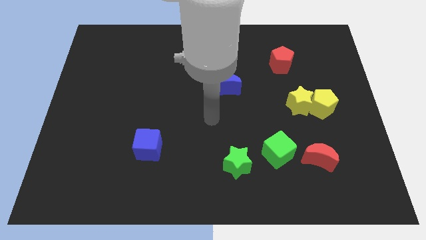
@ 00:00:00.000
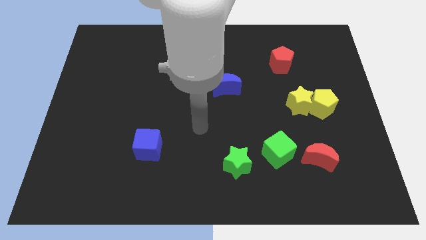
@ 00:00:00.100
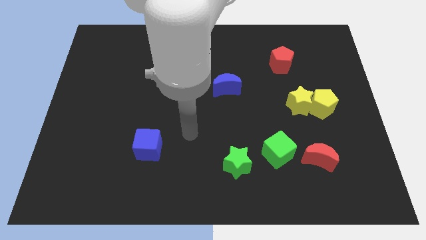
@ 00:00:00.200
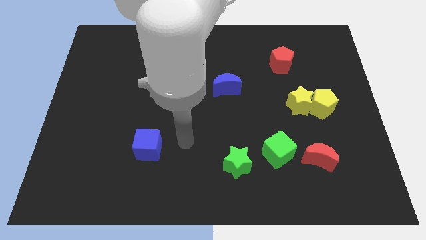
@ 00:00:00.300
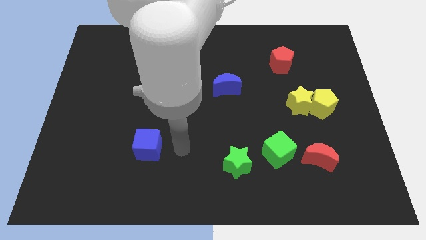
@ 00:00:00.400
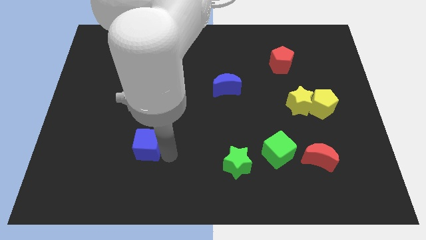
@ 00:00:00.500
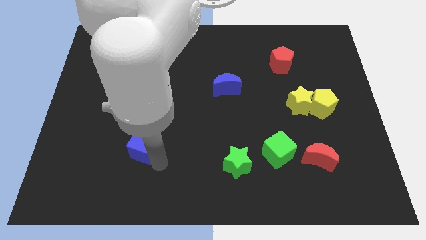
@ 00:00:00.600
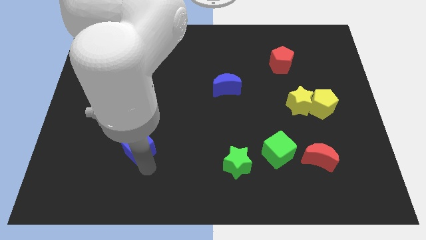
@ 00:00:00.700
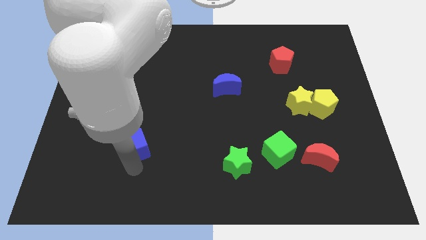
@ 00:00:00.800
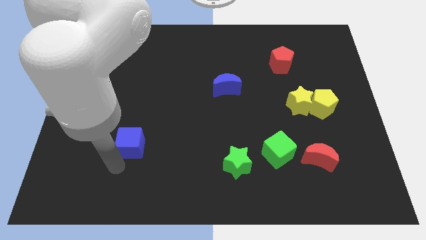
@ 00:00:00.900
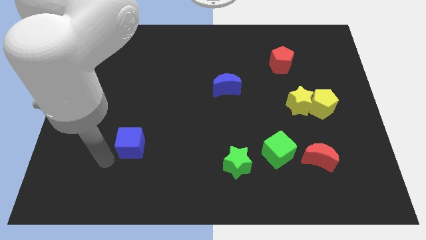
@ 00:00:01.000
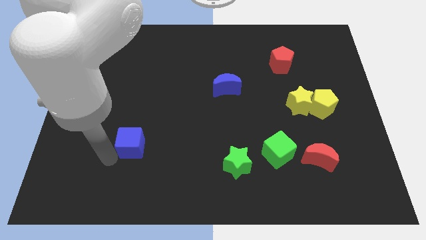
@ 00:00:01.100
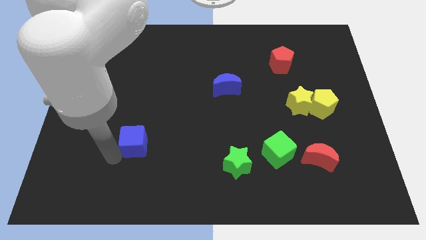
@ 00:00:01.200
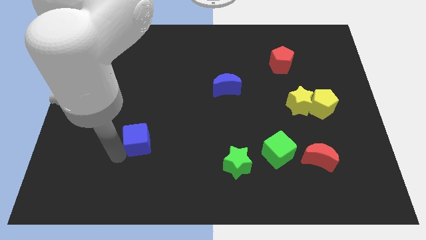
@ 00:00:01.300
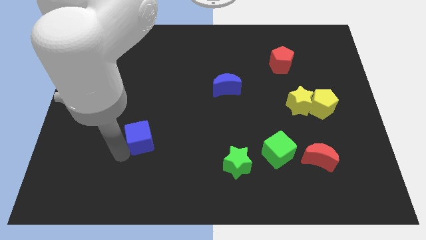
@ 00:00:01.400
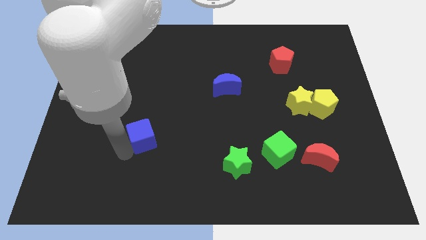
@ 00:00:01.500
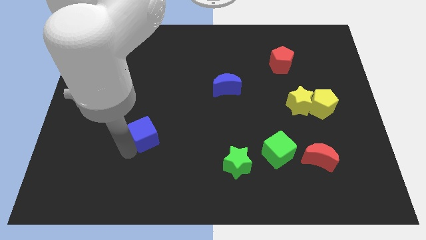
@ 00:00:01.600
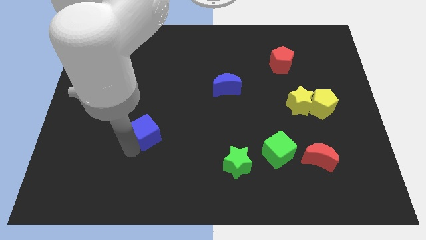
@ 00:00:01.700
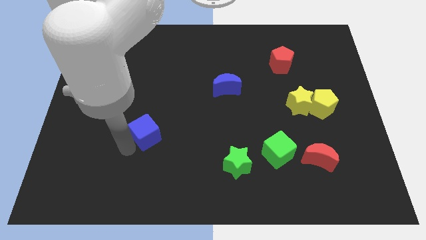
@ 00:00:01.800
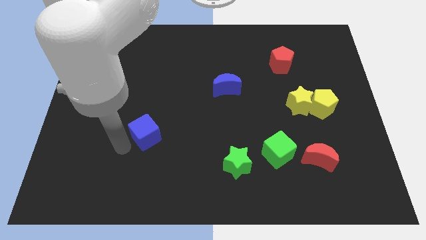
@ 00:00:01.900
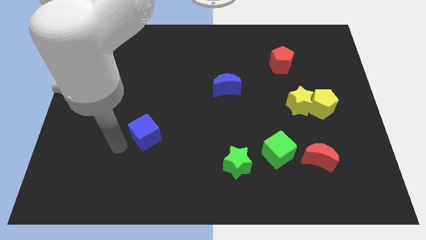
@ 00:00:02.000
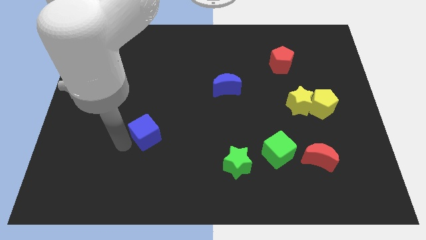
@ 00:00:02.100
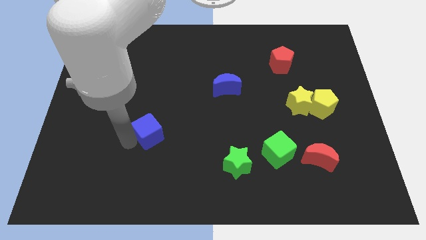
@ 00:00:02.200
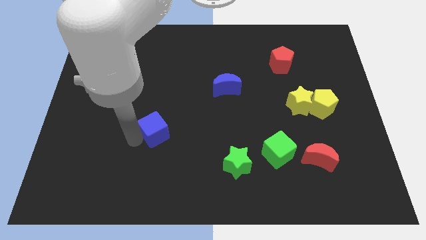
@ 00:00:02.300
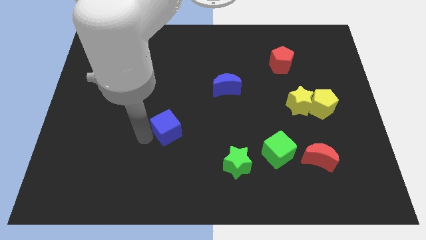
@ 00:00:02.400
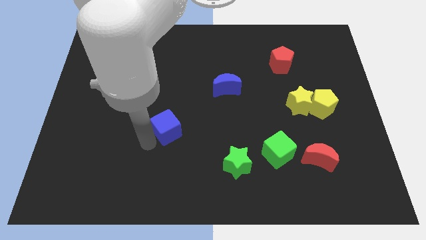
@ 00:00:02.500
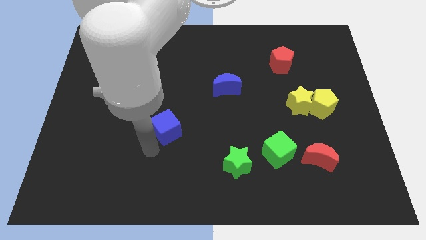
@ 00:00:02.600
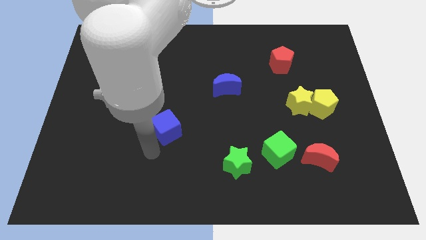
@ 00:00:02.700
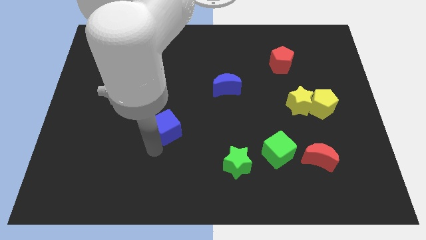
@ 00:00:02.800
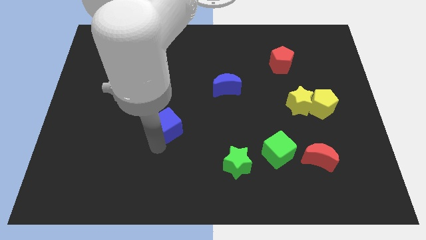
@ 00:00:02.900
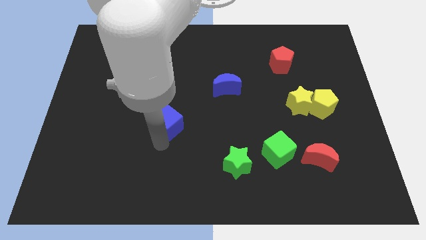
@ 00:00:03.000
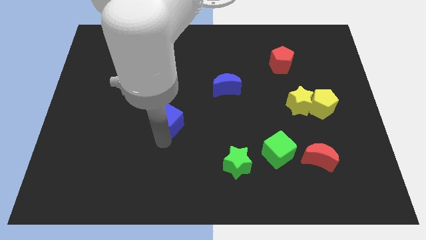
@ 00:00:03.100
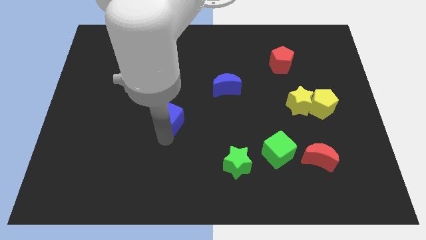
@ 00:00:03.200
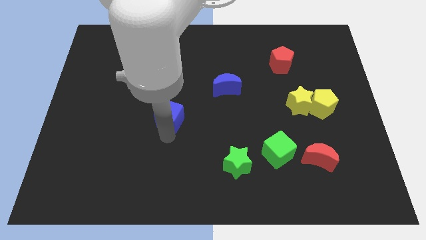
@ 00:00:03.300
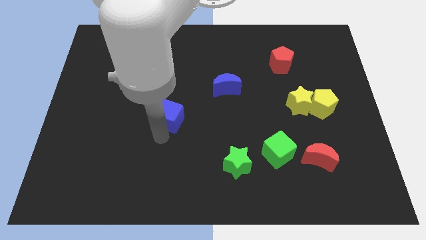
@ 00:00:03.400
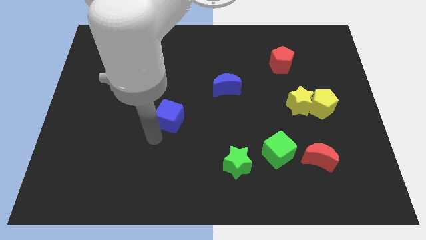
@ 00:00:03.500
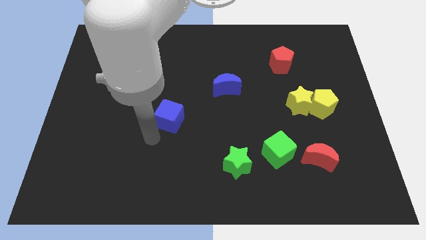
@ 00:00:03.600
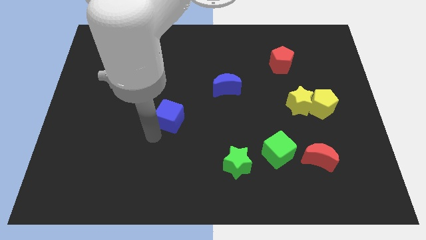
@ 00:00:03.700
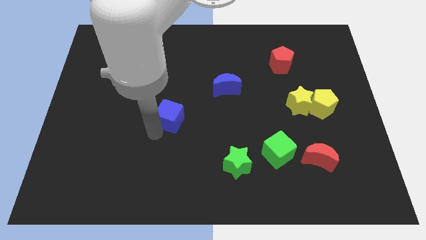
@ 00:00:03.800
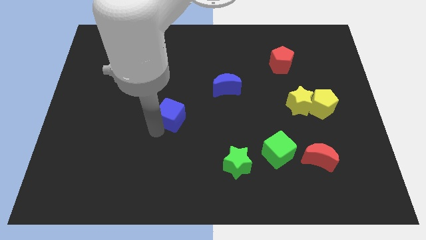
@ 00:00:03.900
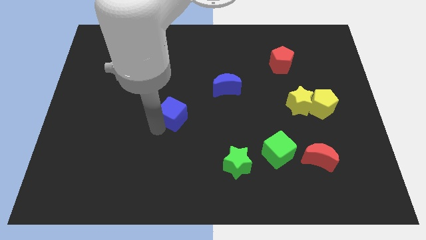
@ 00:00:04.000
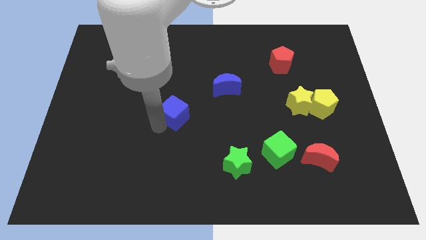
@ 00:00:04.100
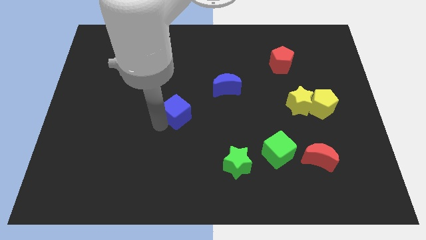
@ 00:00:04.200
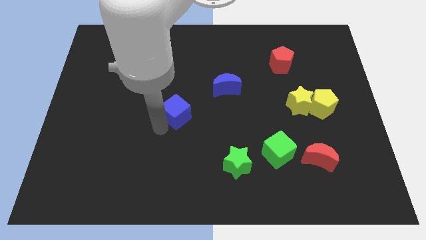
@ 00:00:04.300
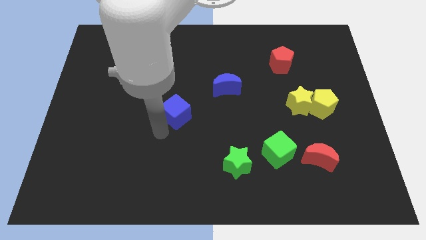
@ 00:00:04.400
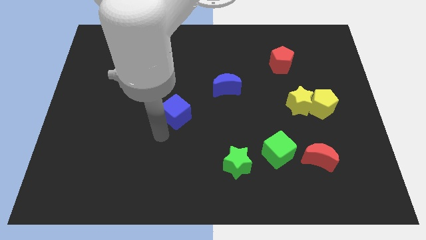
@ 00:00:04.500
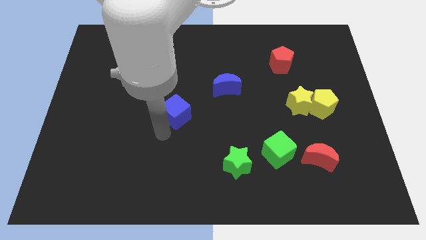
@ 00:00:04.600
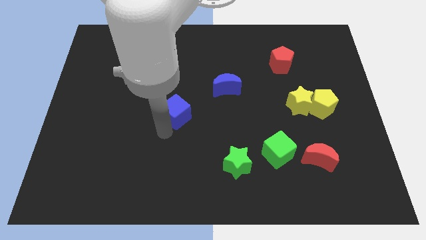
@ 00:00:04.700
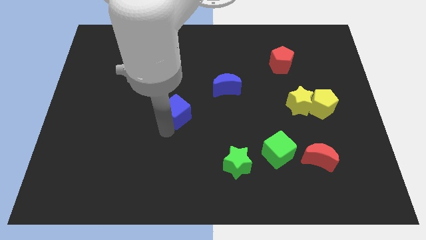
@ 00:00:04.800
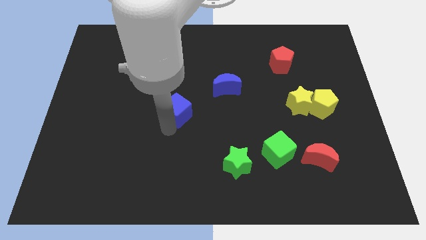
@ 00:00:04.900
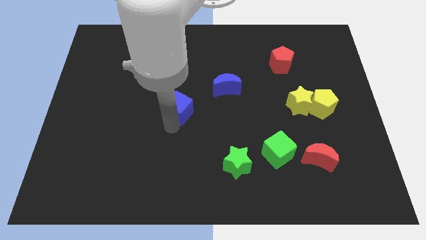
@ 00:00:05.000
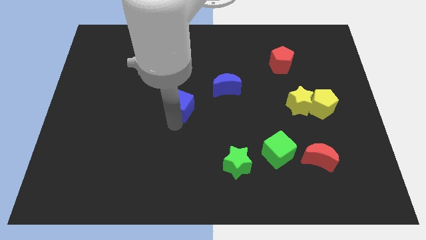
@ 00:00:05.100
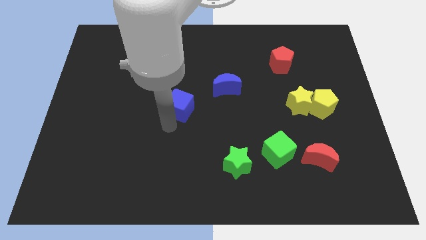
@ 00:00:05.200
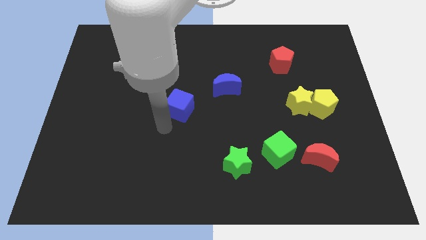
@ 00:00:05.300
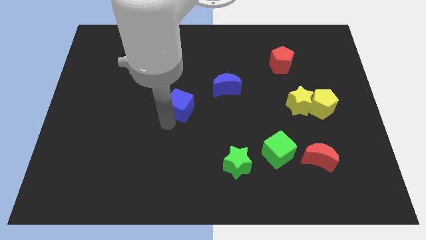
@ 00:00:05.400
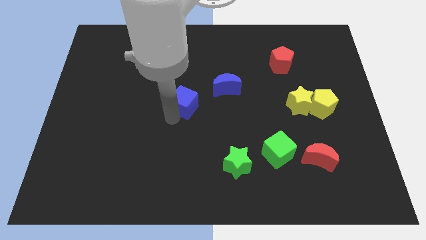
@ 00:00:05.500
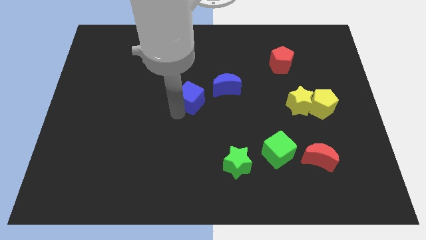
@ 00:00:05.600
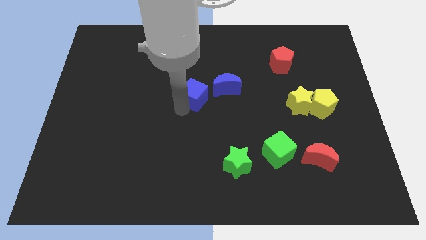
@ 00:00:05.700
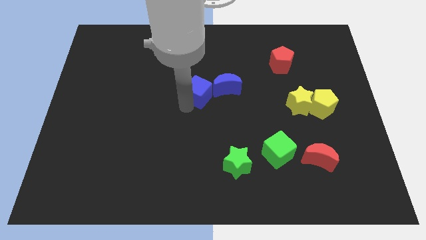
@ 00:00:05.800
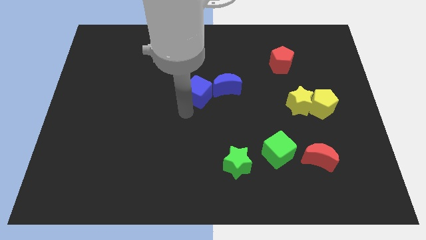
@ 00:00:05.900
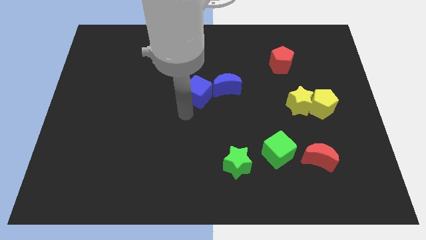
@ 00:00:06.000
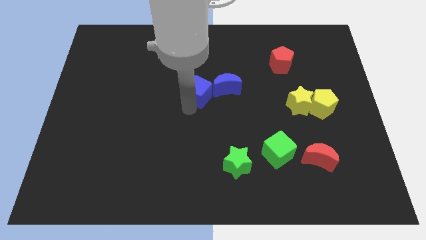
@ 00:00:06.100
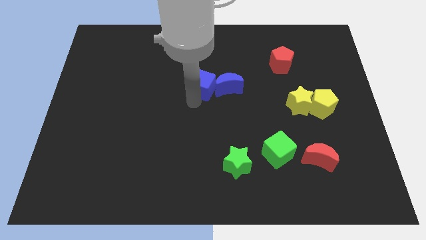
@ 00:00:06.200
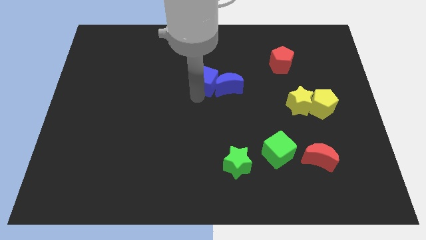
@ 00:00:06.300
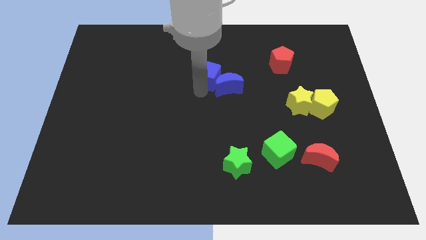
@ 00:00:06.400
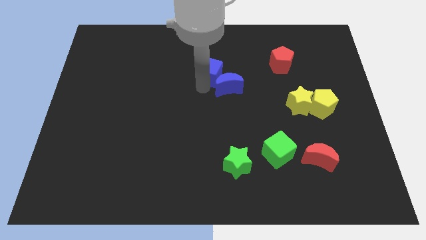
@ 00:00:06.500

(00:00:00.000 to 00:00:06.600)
push the blue cube to the top side of the blue moon
